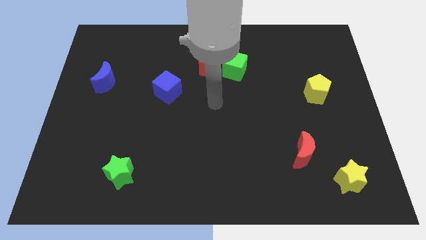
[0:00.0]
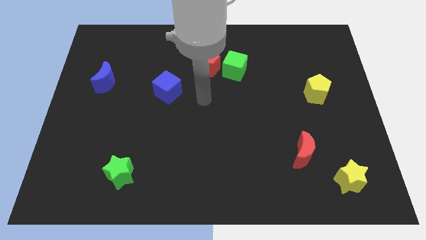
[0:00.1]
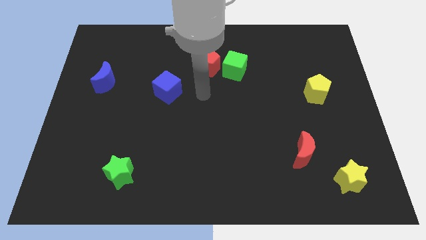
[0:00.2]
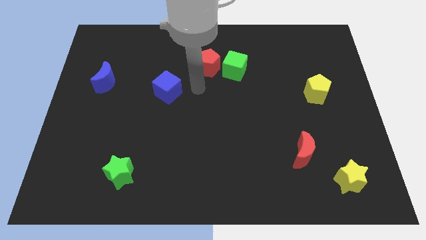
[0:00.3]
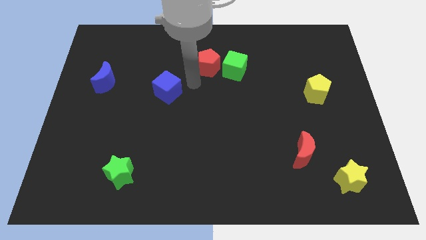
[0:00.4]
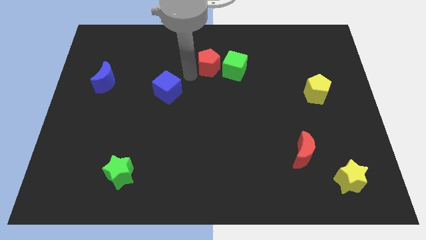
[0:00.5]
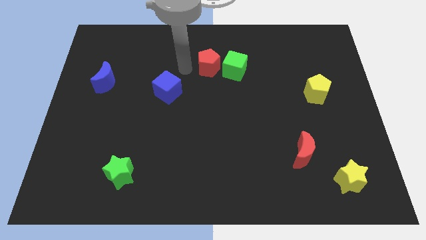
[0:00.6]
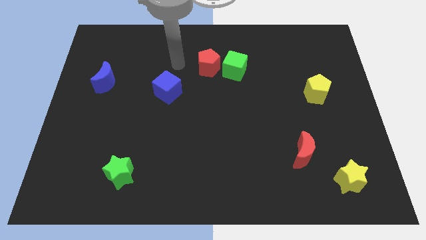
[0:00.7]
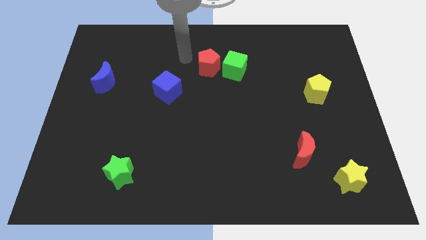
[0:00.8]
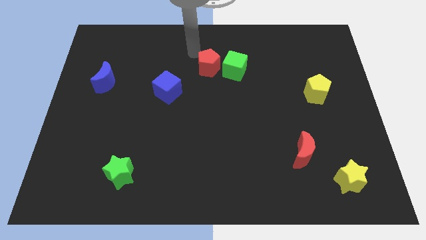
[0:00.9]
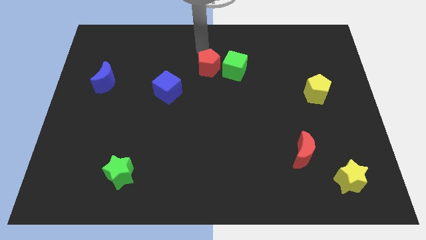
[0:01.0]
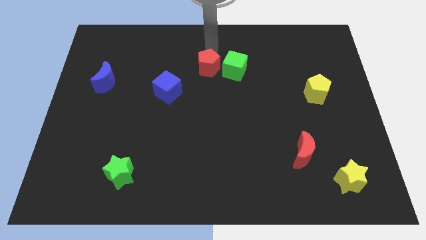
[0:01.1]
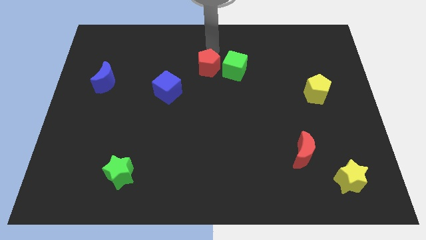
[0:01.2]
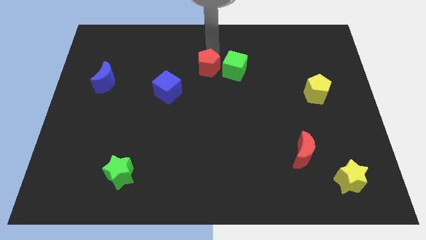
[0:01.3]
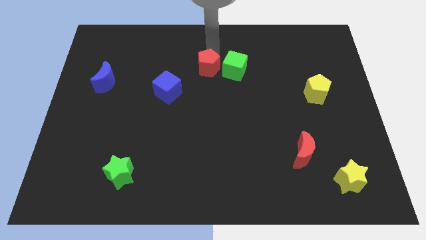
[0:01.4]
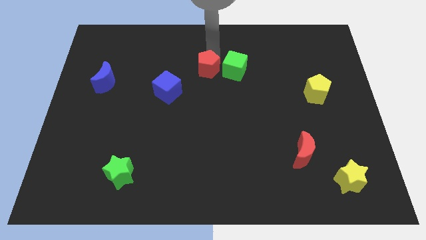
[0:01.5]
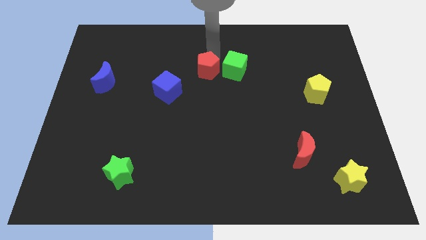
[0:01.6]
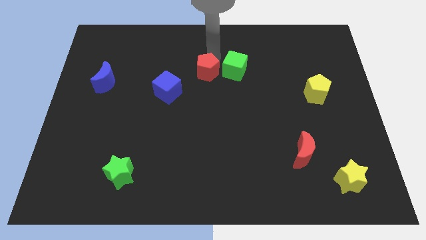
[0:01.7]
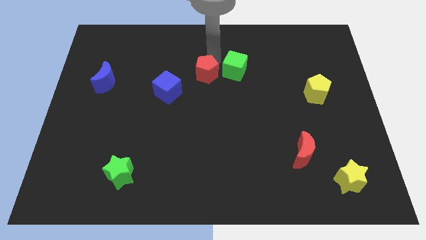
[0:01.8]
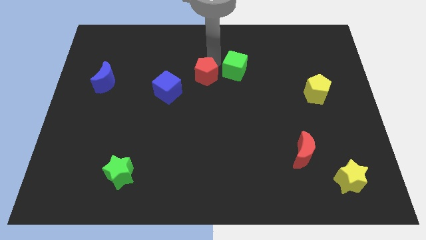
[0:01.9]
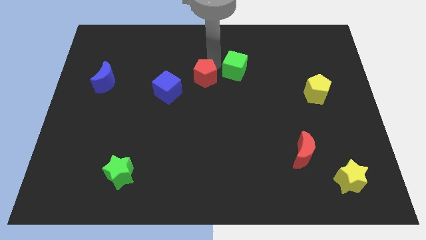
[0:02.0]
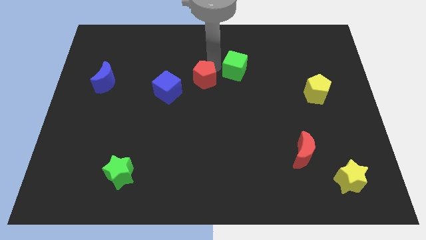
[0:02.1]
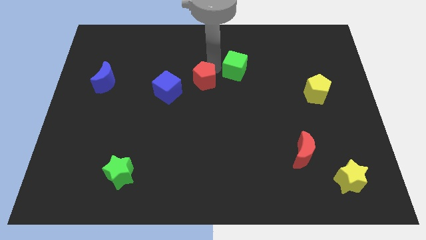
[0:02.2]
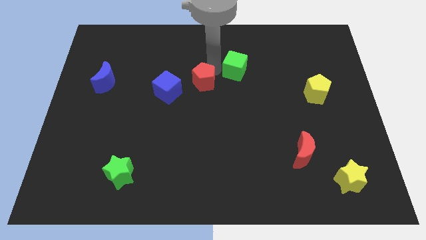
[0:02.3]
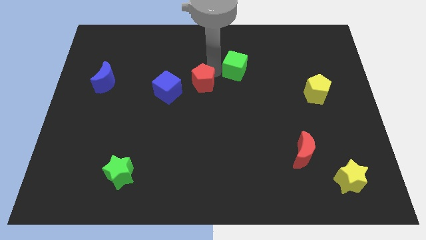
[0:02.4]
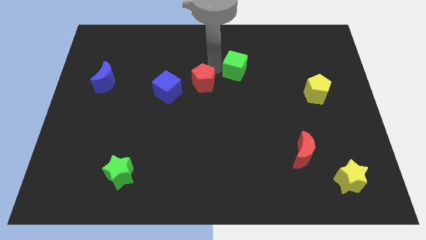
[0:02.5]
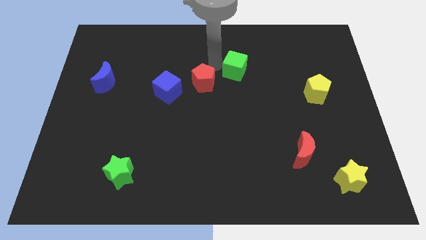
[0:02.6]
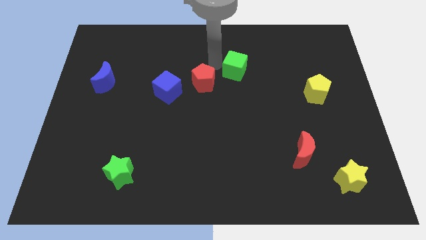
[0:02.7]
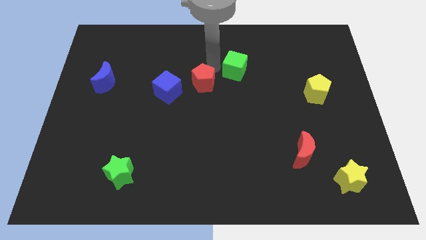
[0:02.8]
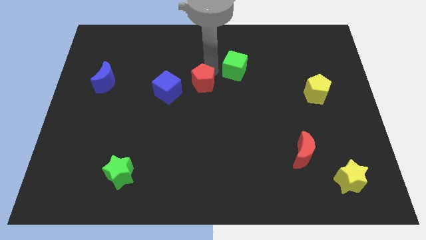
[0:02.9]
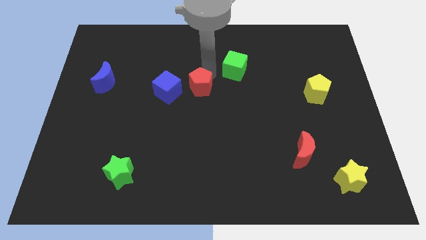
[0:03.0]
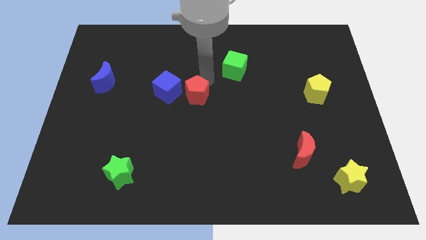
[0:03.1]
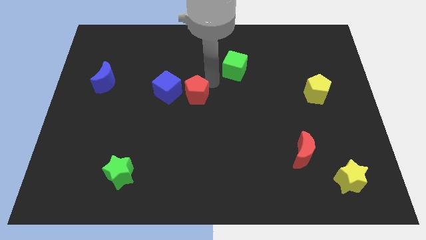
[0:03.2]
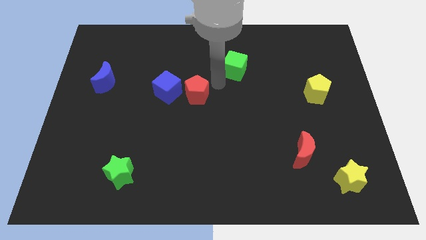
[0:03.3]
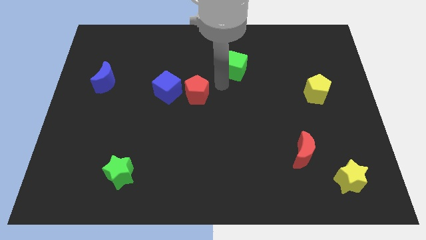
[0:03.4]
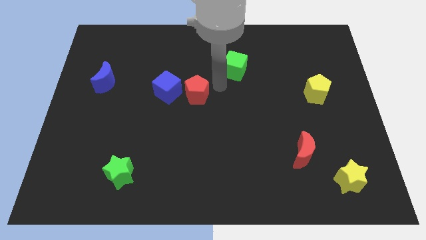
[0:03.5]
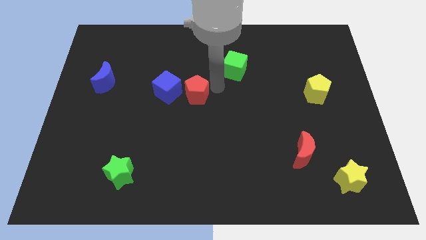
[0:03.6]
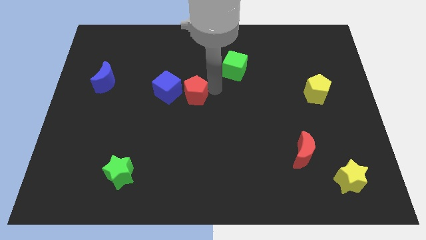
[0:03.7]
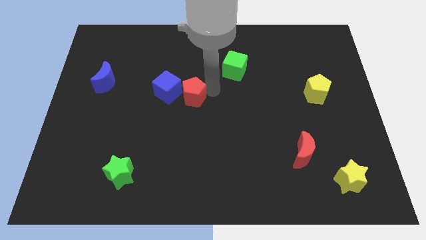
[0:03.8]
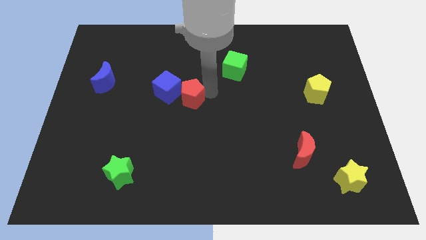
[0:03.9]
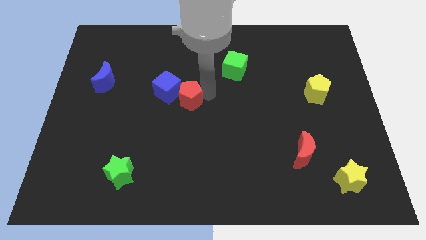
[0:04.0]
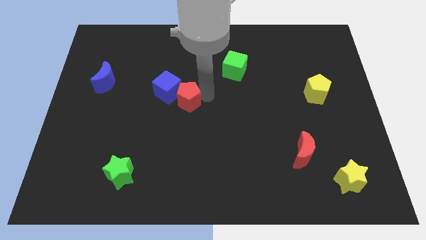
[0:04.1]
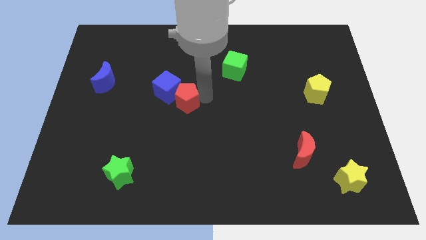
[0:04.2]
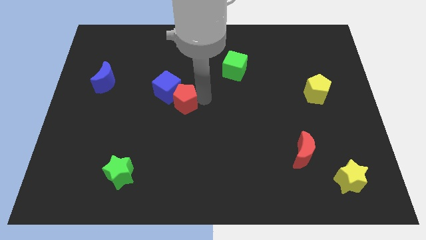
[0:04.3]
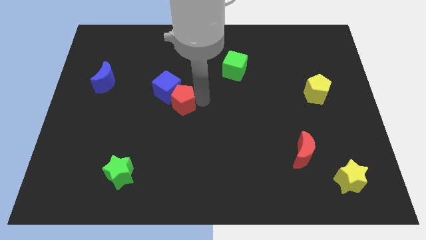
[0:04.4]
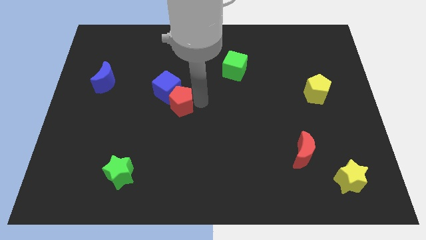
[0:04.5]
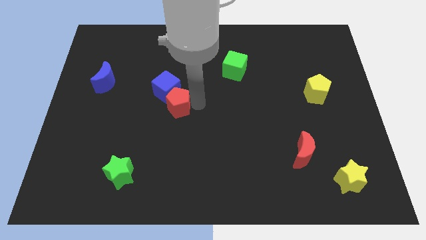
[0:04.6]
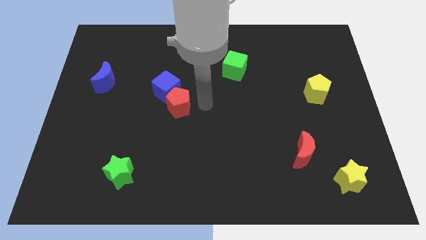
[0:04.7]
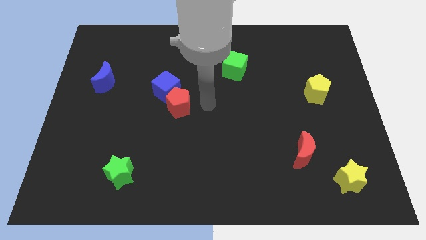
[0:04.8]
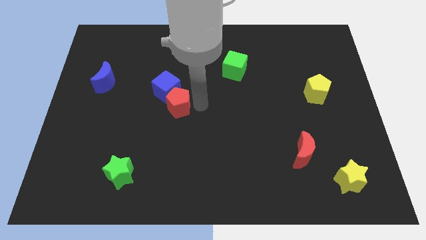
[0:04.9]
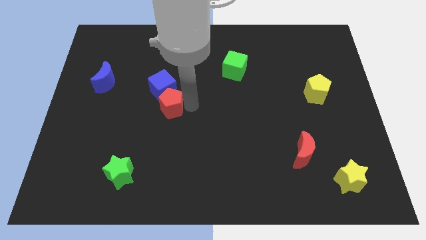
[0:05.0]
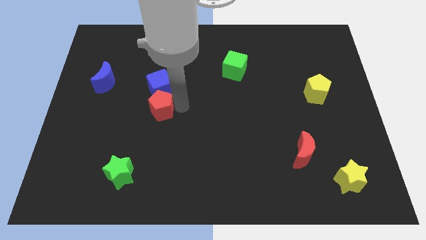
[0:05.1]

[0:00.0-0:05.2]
put the red pentagon to the bottom left of the blue cube

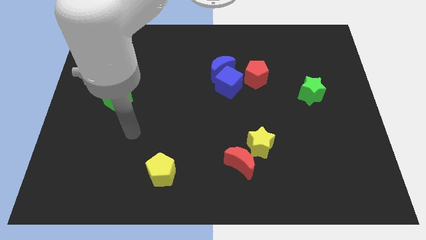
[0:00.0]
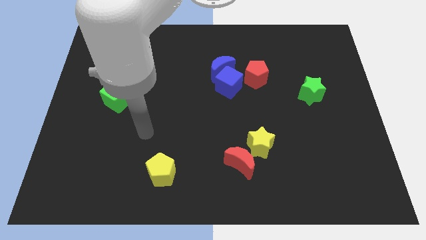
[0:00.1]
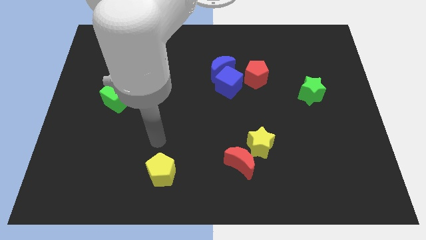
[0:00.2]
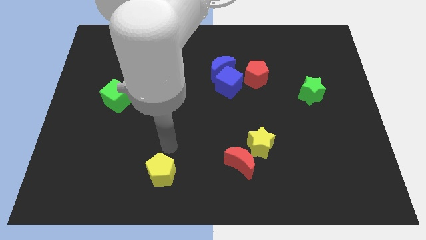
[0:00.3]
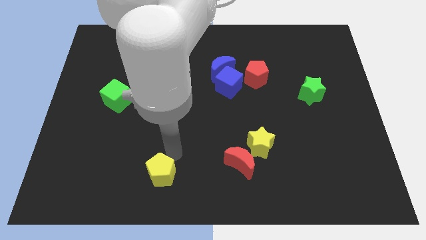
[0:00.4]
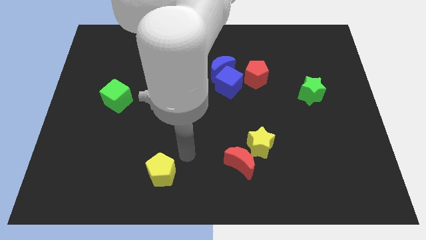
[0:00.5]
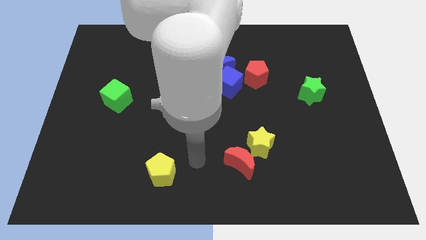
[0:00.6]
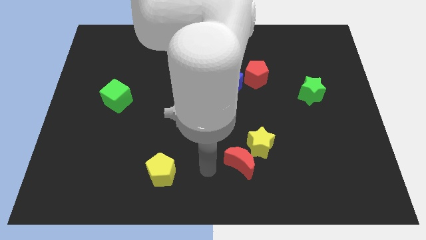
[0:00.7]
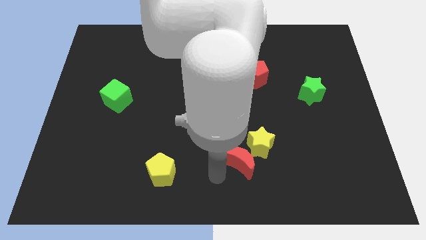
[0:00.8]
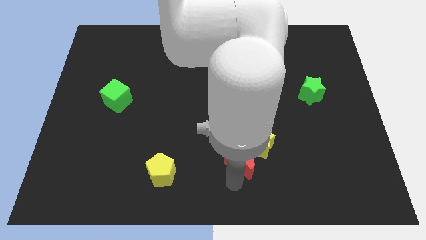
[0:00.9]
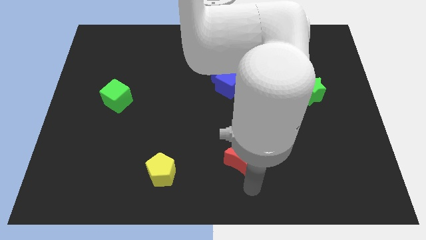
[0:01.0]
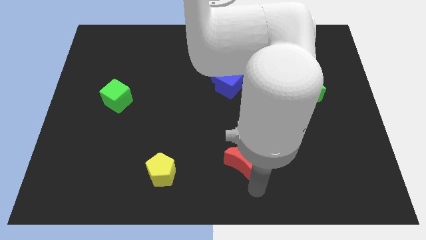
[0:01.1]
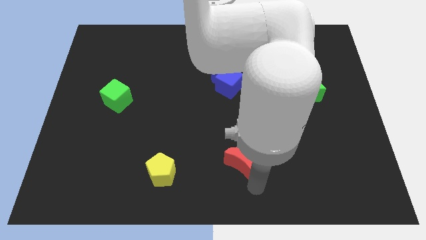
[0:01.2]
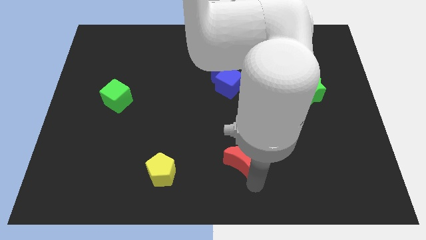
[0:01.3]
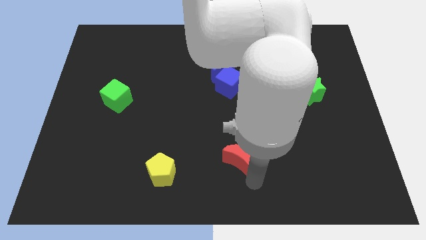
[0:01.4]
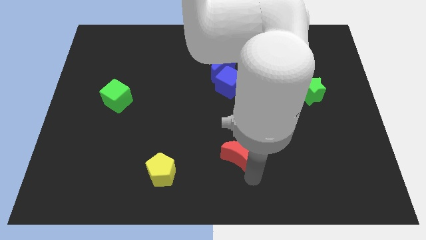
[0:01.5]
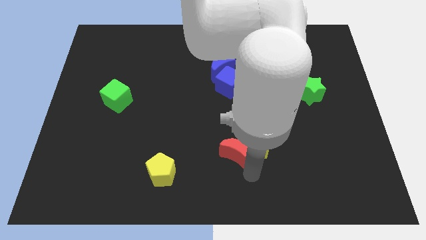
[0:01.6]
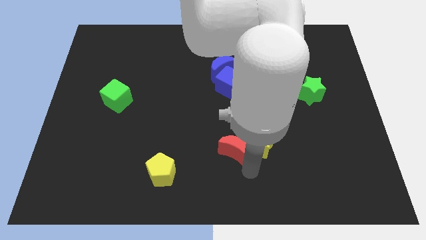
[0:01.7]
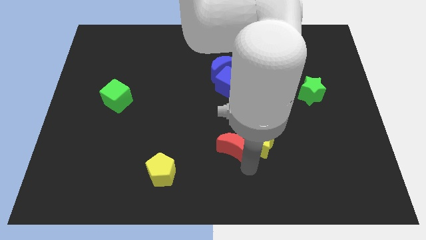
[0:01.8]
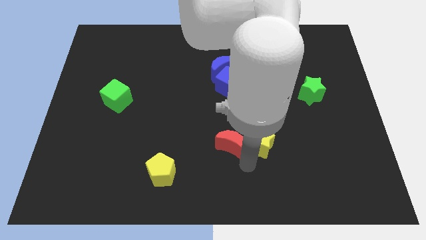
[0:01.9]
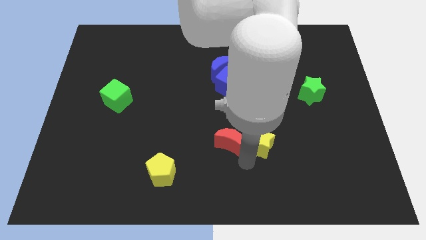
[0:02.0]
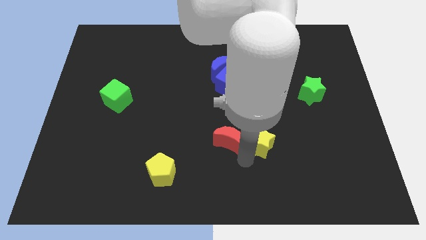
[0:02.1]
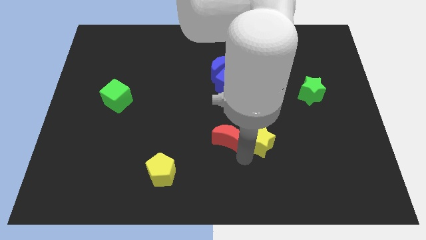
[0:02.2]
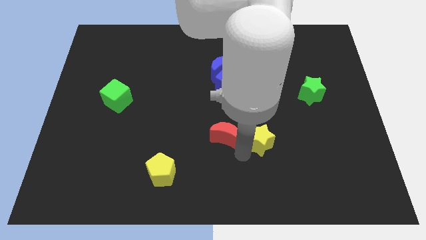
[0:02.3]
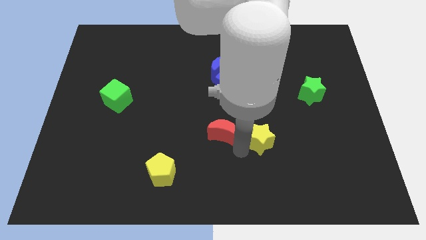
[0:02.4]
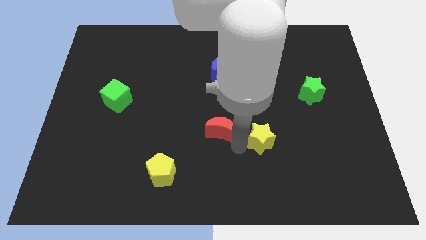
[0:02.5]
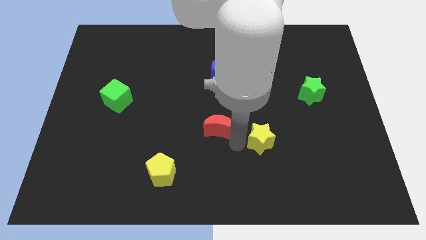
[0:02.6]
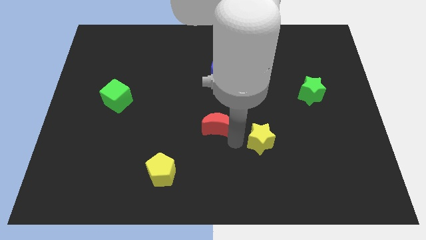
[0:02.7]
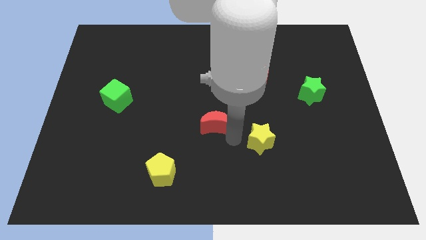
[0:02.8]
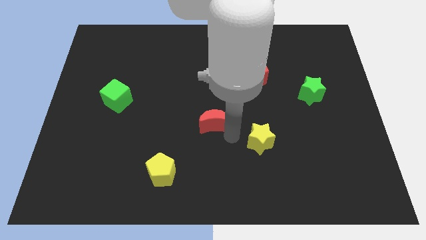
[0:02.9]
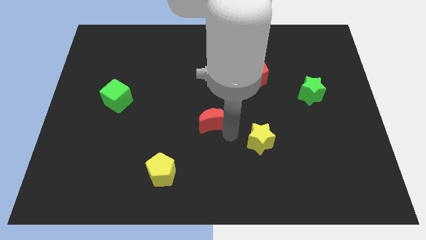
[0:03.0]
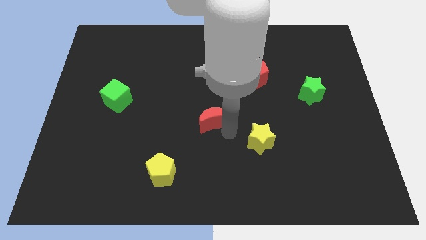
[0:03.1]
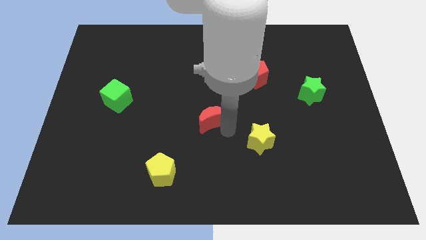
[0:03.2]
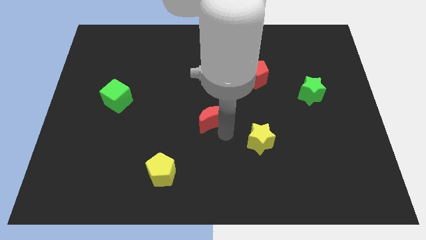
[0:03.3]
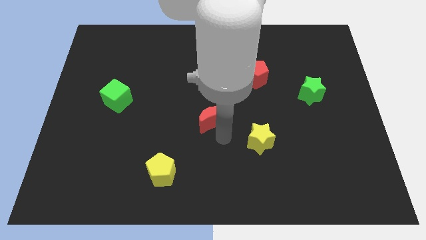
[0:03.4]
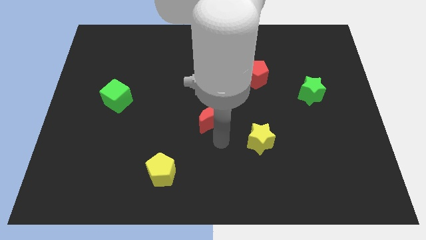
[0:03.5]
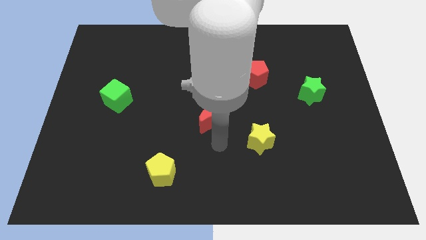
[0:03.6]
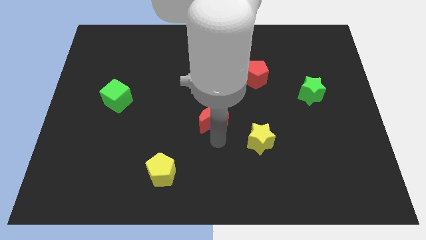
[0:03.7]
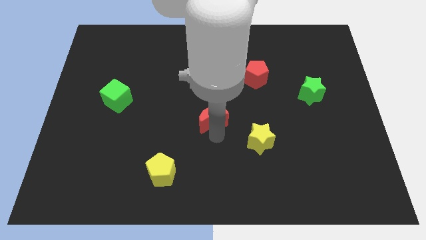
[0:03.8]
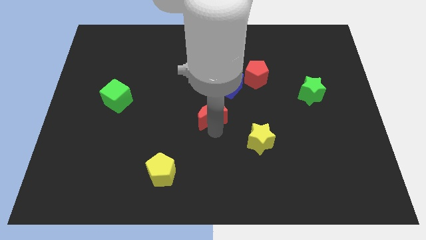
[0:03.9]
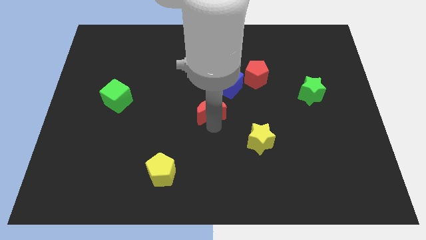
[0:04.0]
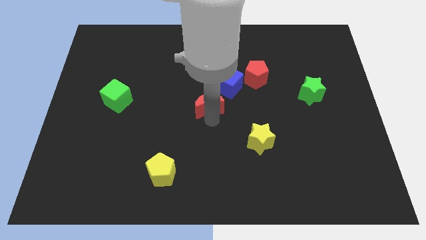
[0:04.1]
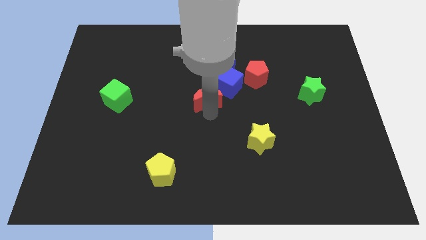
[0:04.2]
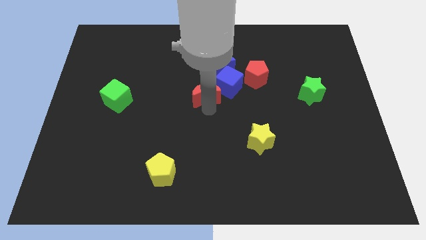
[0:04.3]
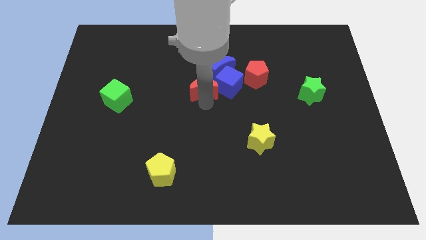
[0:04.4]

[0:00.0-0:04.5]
put the red moon just left of the red pentagon
